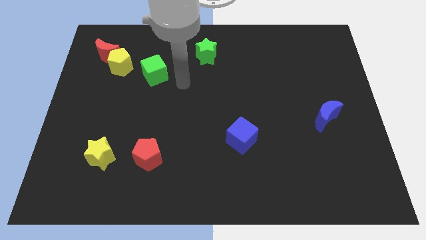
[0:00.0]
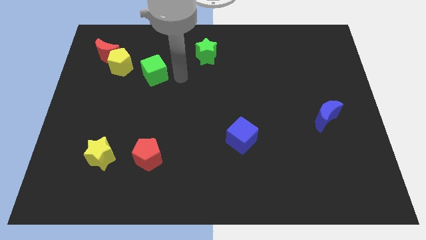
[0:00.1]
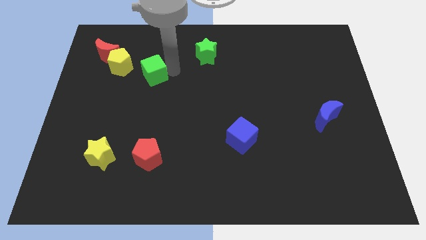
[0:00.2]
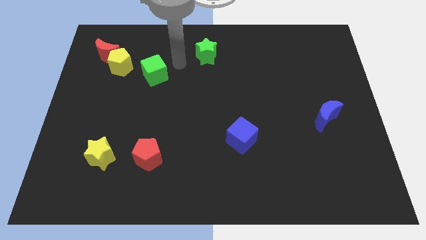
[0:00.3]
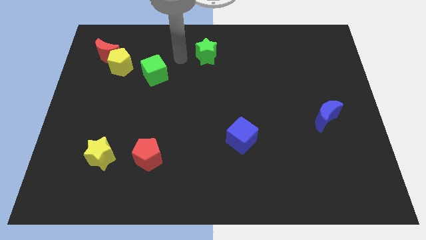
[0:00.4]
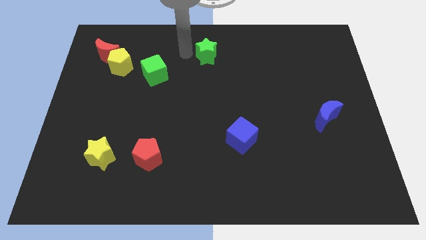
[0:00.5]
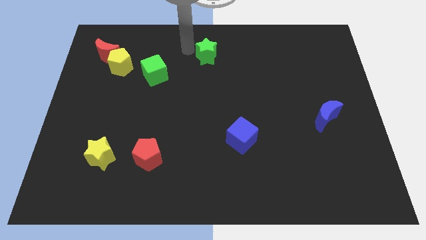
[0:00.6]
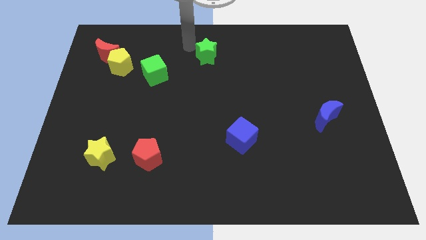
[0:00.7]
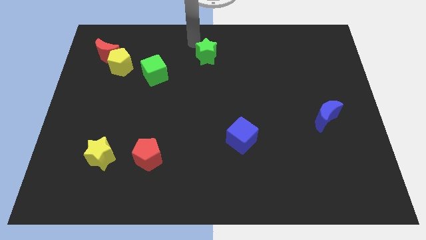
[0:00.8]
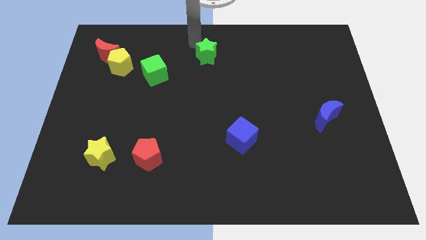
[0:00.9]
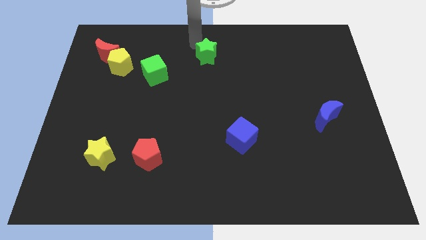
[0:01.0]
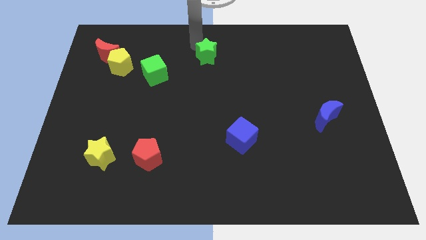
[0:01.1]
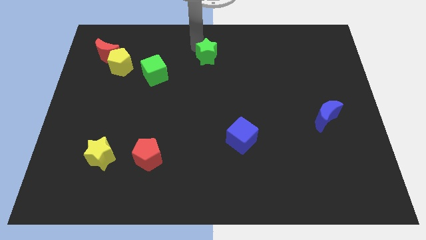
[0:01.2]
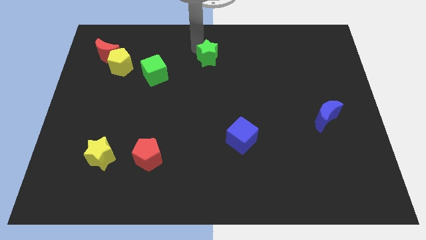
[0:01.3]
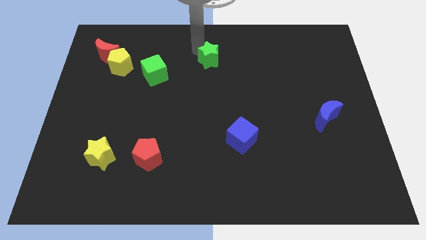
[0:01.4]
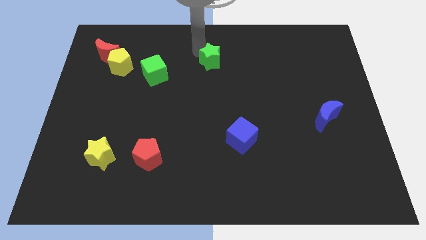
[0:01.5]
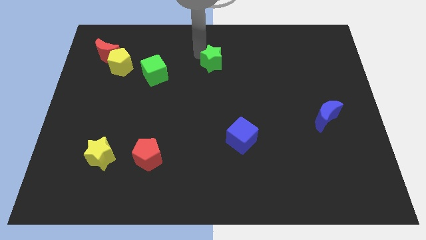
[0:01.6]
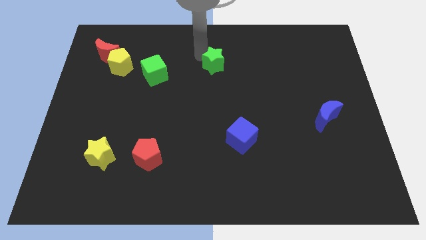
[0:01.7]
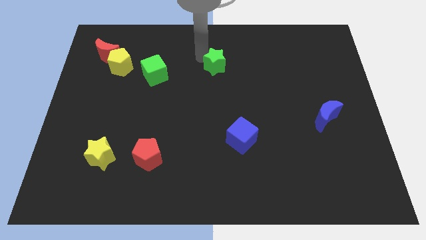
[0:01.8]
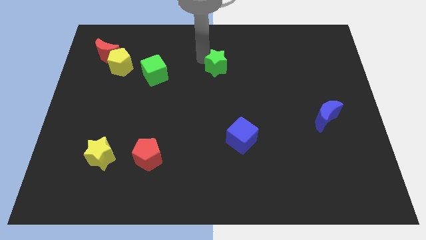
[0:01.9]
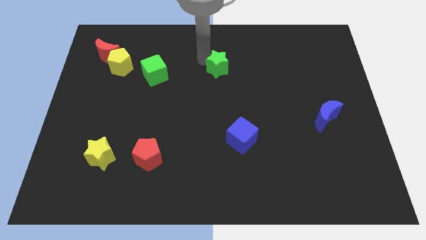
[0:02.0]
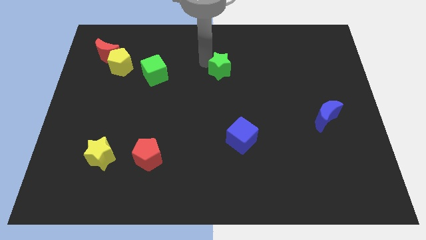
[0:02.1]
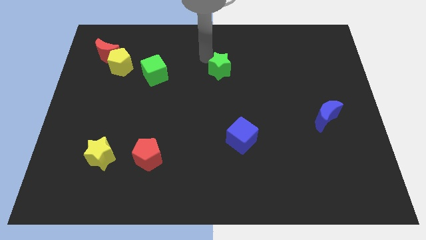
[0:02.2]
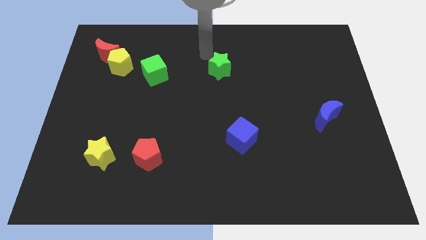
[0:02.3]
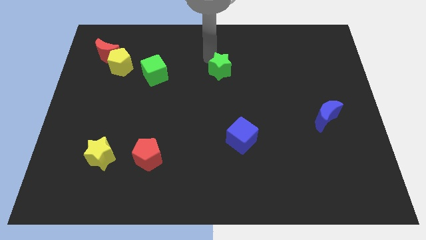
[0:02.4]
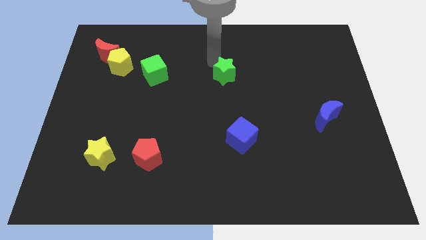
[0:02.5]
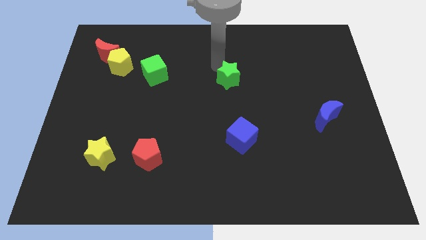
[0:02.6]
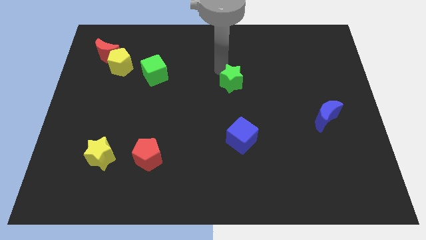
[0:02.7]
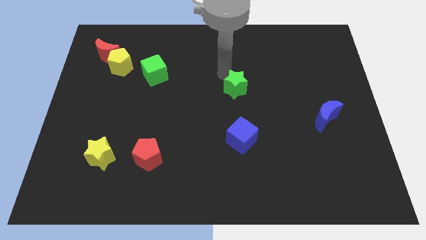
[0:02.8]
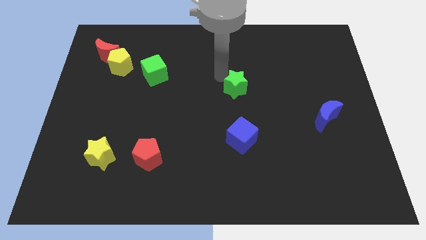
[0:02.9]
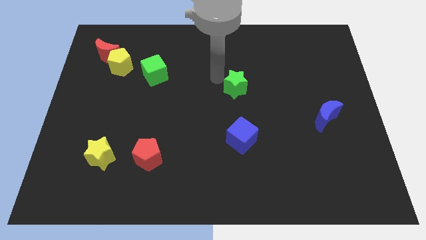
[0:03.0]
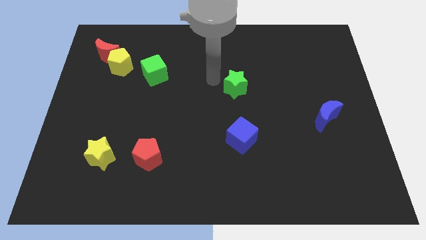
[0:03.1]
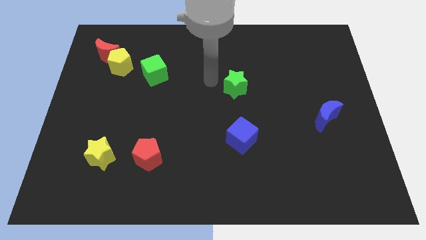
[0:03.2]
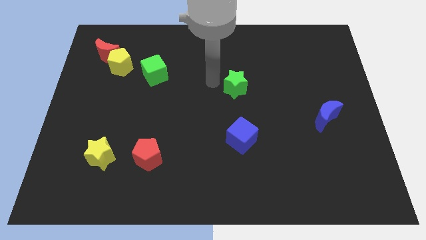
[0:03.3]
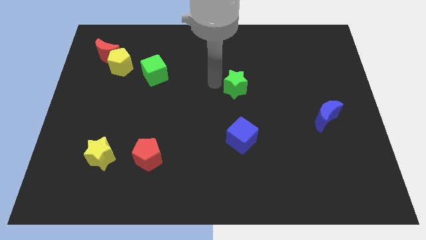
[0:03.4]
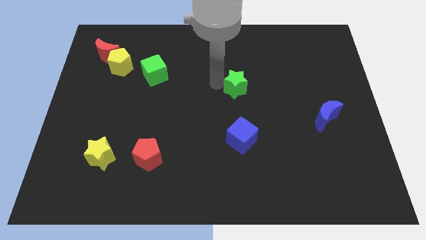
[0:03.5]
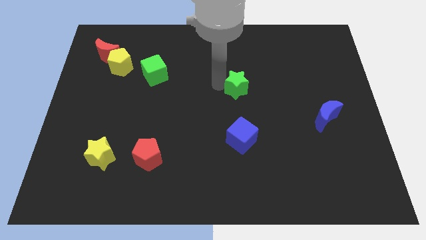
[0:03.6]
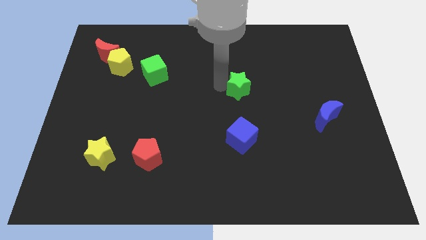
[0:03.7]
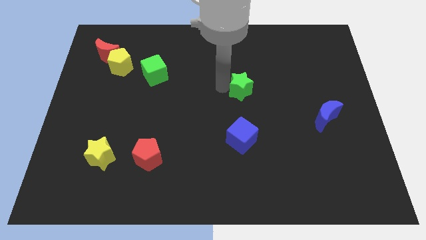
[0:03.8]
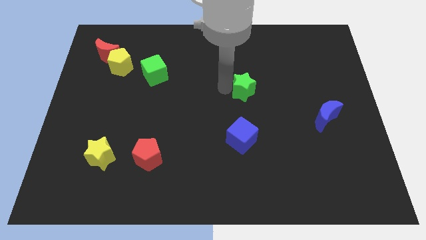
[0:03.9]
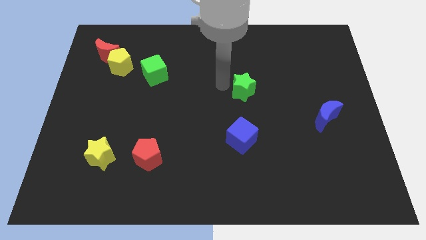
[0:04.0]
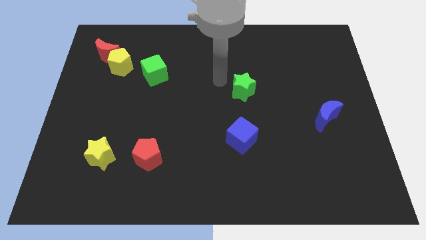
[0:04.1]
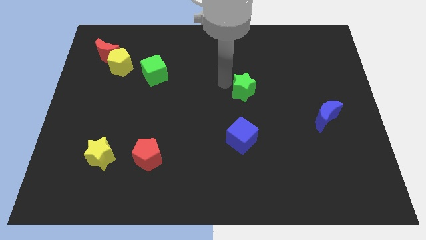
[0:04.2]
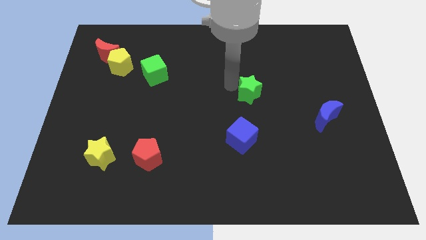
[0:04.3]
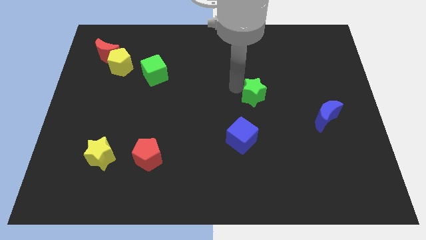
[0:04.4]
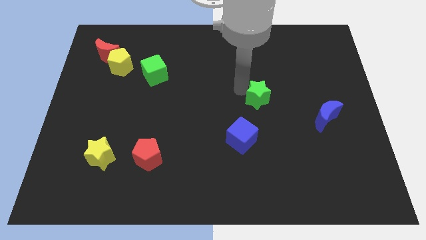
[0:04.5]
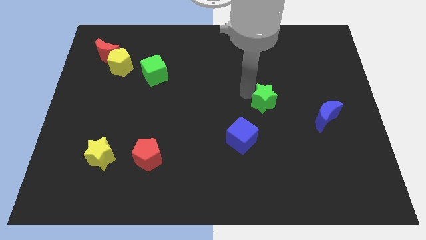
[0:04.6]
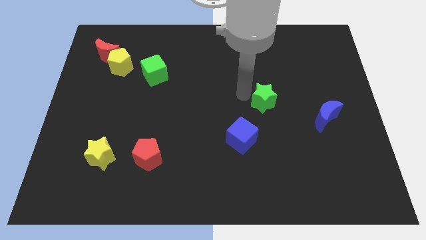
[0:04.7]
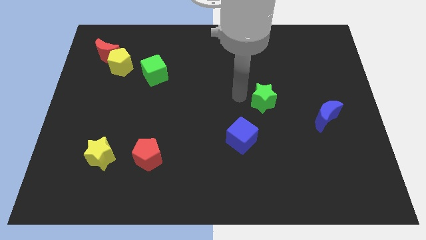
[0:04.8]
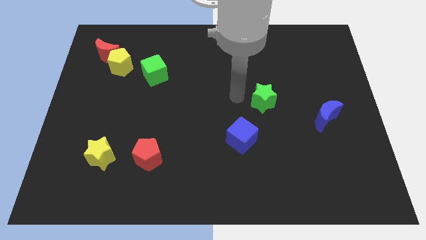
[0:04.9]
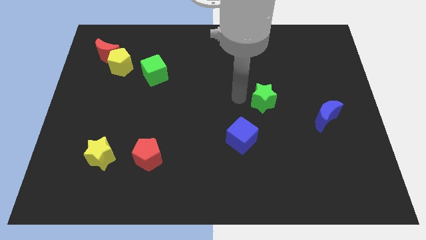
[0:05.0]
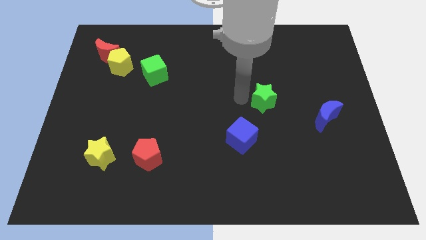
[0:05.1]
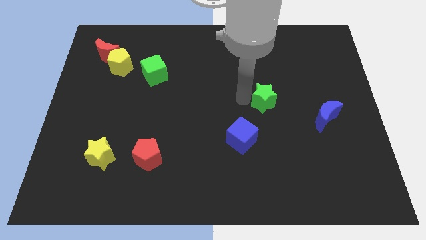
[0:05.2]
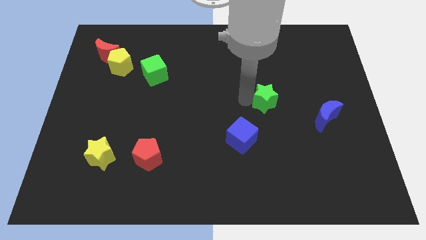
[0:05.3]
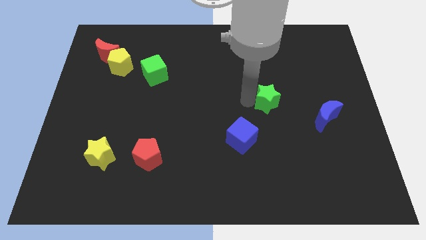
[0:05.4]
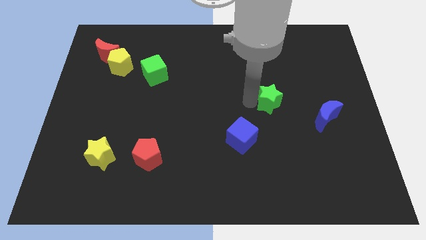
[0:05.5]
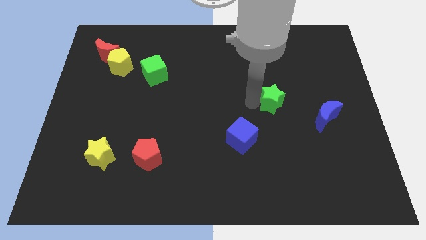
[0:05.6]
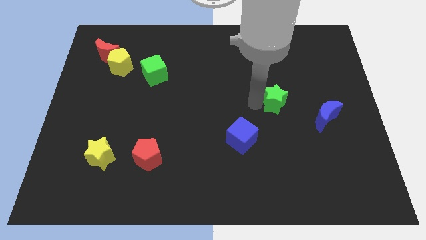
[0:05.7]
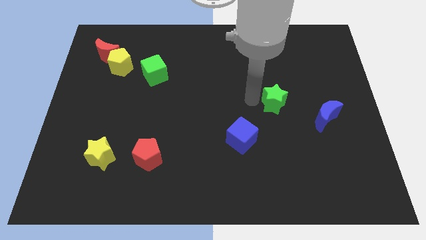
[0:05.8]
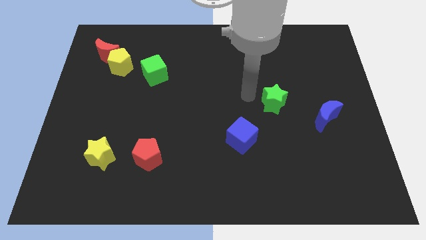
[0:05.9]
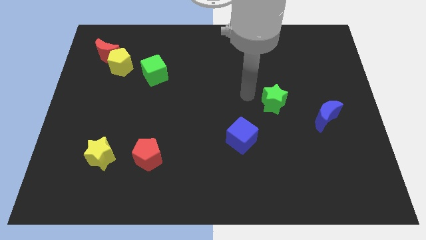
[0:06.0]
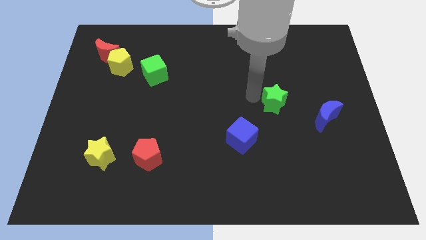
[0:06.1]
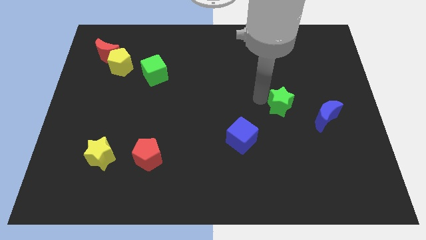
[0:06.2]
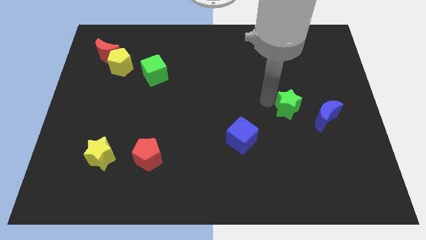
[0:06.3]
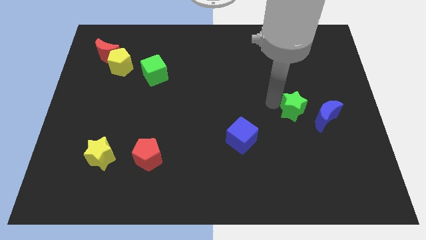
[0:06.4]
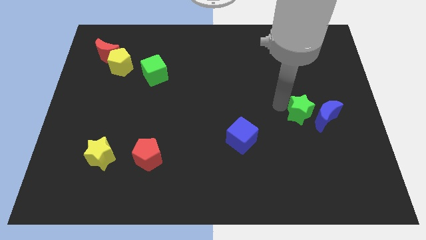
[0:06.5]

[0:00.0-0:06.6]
push the green star next to the blue moon

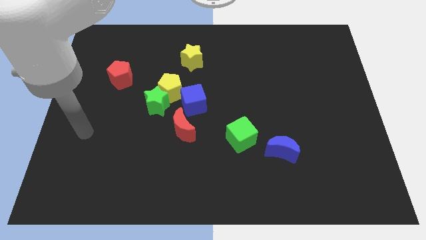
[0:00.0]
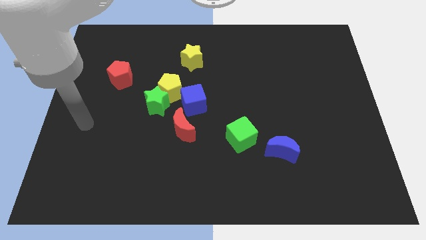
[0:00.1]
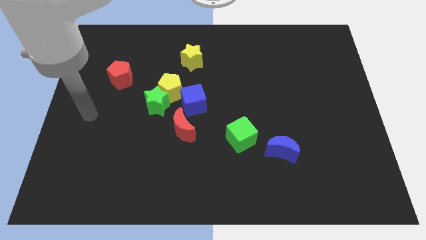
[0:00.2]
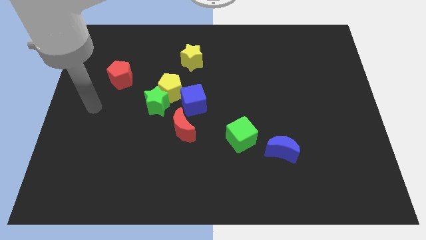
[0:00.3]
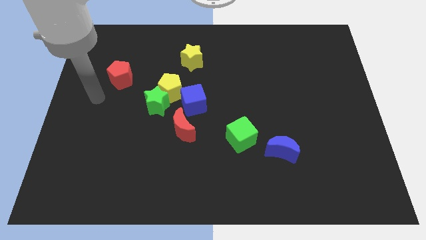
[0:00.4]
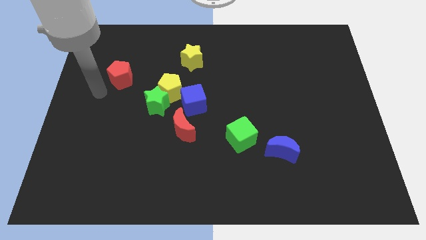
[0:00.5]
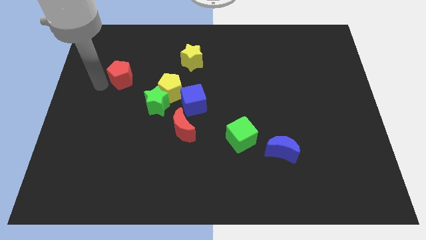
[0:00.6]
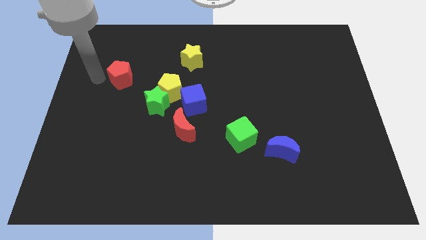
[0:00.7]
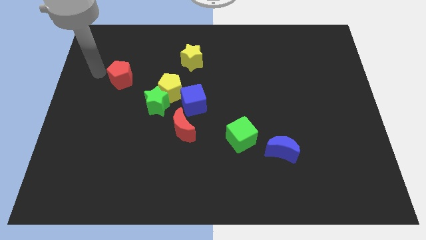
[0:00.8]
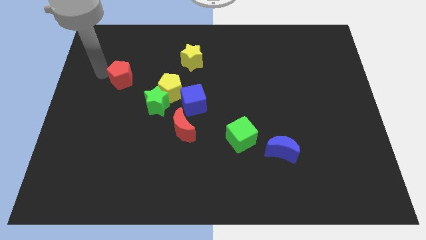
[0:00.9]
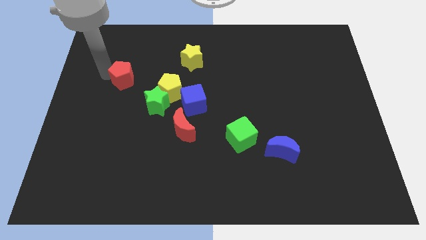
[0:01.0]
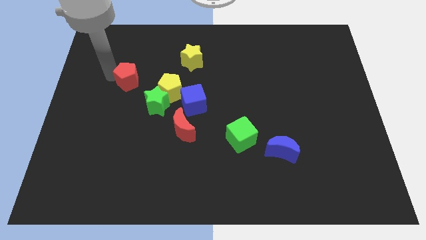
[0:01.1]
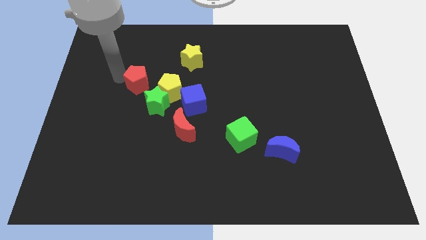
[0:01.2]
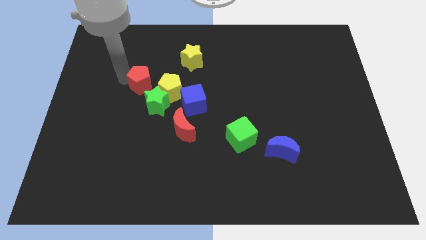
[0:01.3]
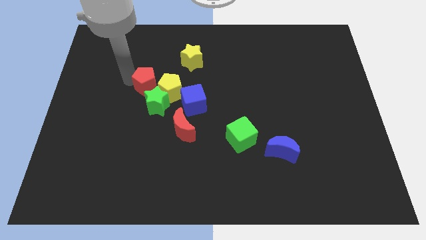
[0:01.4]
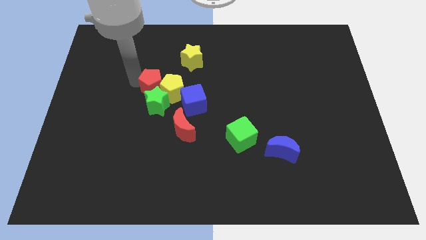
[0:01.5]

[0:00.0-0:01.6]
slide the red pentagon towards the yellow pentagon
